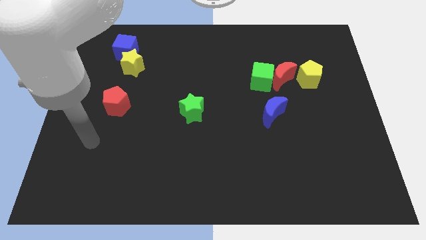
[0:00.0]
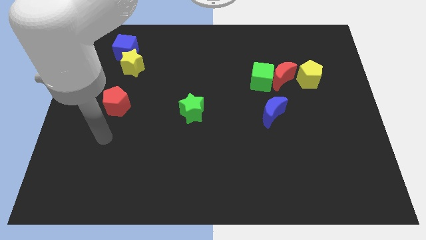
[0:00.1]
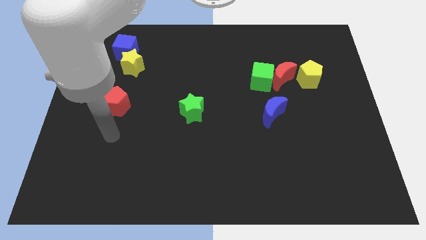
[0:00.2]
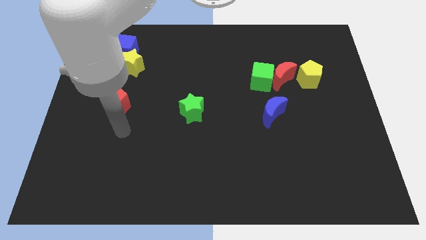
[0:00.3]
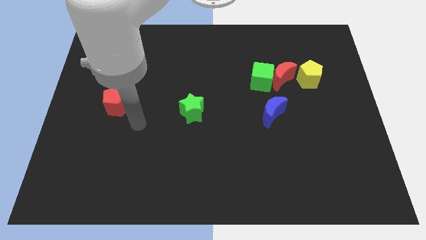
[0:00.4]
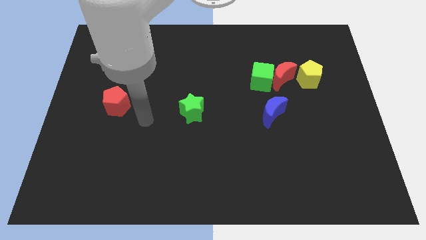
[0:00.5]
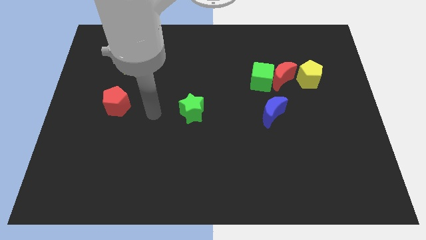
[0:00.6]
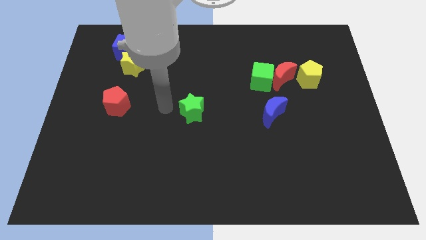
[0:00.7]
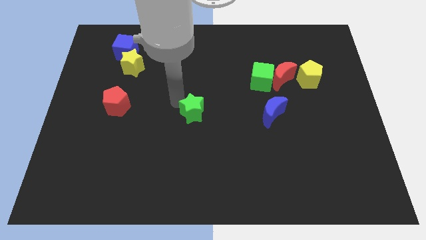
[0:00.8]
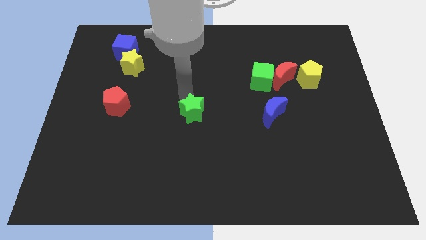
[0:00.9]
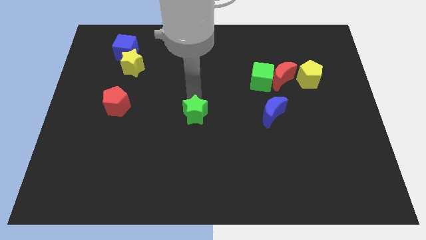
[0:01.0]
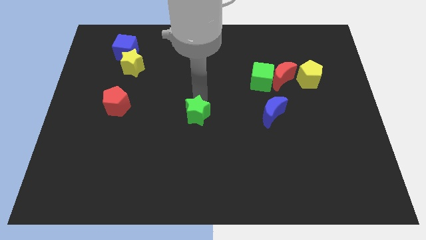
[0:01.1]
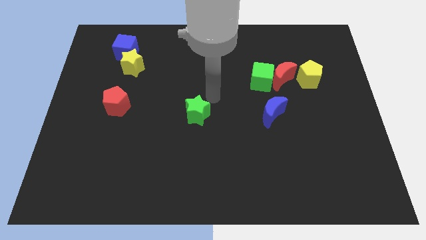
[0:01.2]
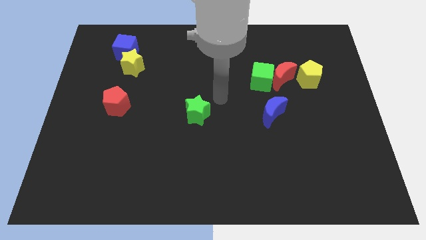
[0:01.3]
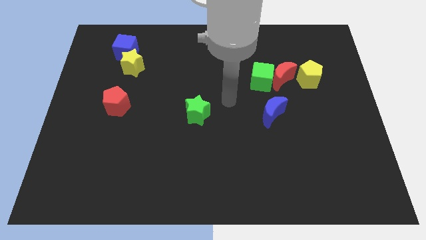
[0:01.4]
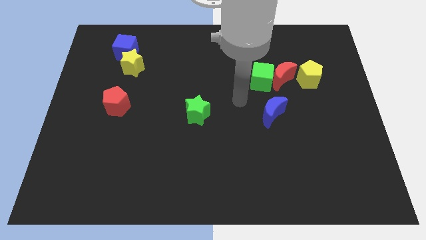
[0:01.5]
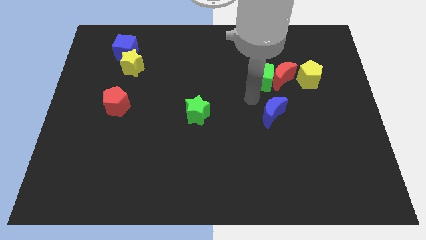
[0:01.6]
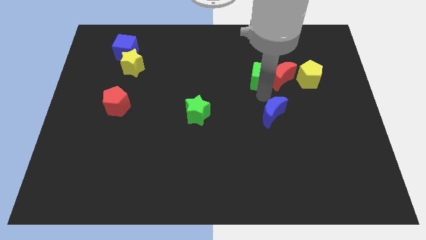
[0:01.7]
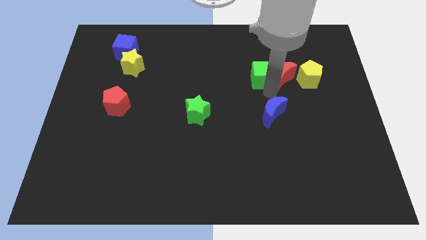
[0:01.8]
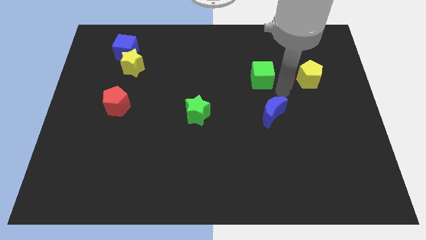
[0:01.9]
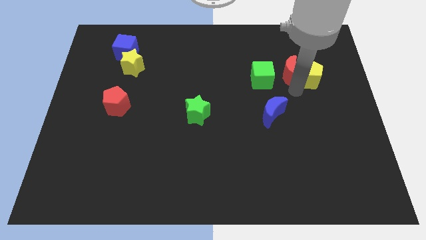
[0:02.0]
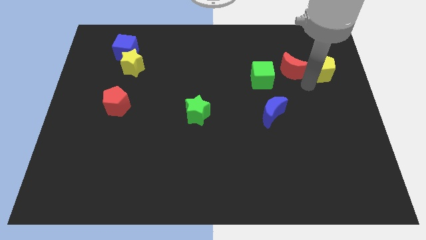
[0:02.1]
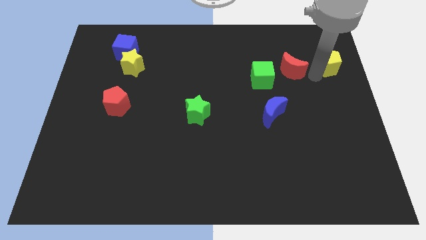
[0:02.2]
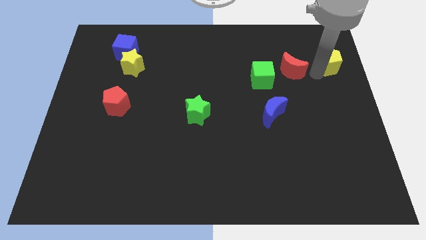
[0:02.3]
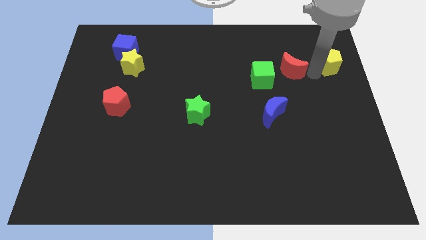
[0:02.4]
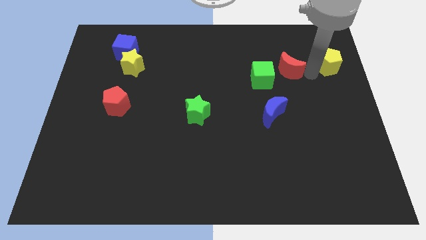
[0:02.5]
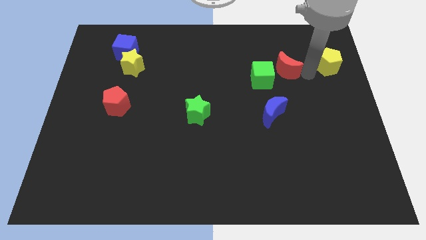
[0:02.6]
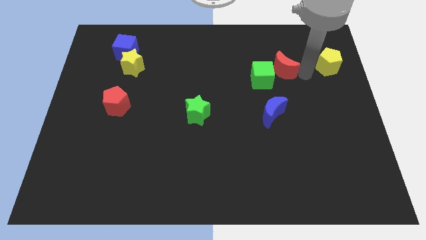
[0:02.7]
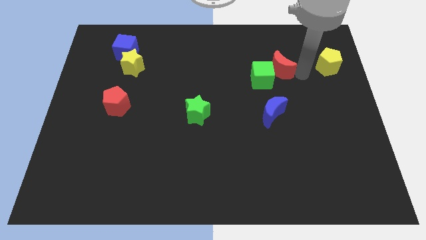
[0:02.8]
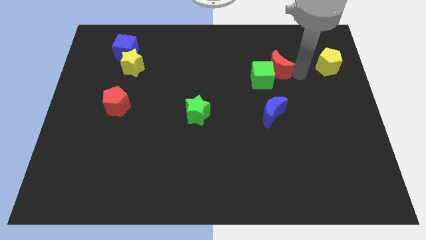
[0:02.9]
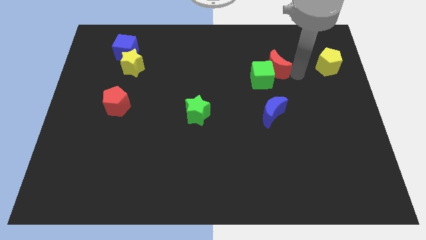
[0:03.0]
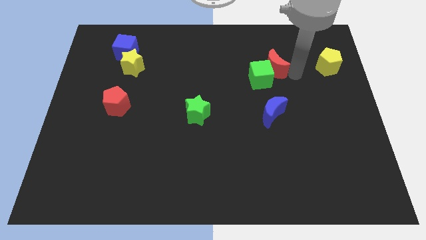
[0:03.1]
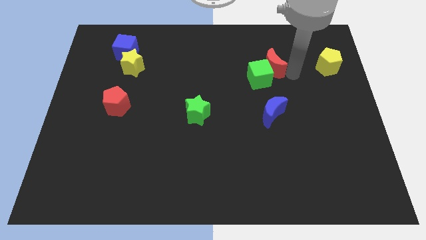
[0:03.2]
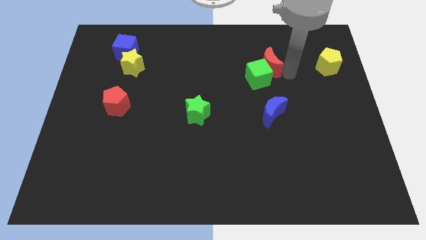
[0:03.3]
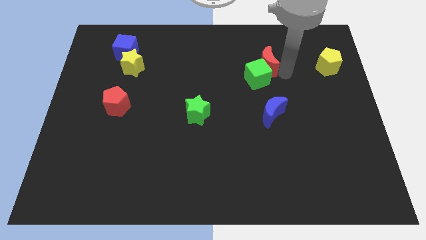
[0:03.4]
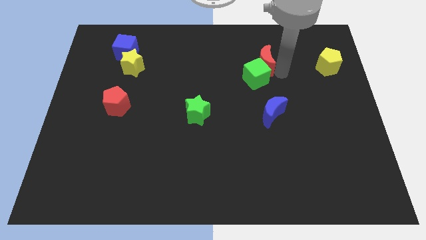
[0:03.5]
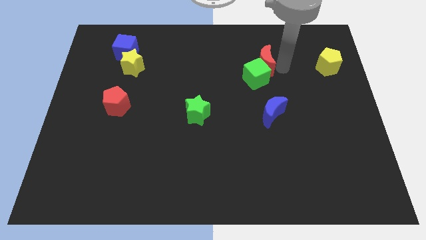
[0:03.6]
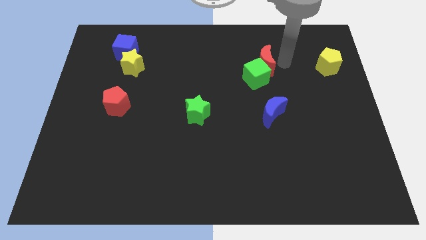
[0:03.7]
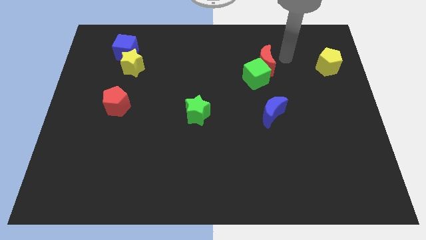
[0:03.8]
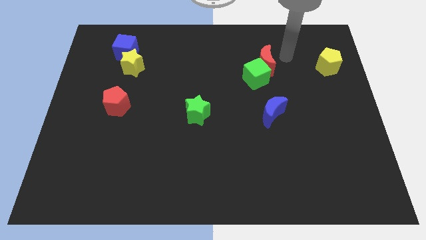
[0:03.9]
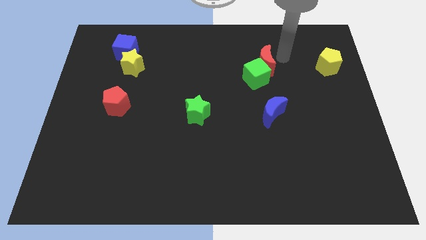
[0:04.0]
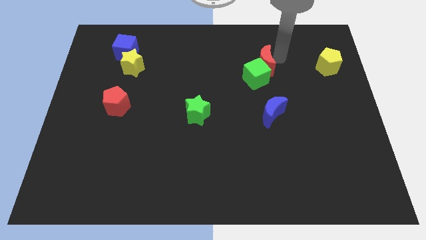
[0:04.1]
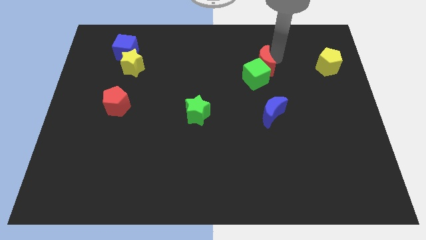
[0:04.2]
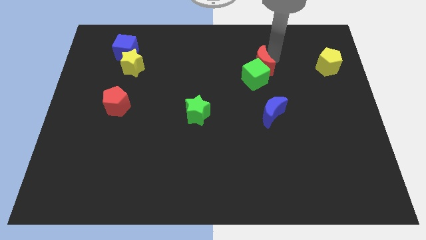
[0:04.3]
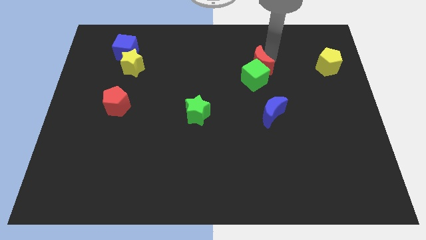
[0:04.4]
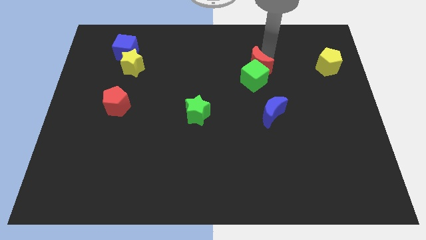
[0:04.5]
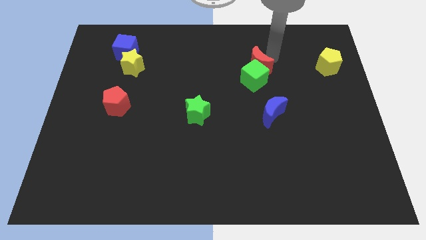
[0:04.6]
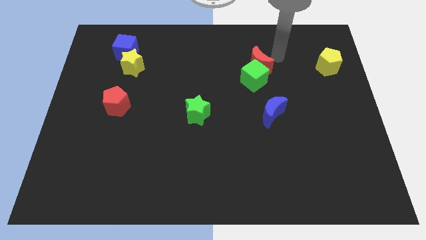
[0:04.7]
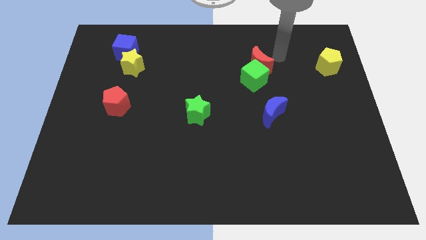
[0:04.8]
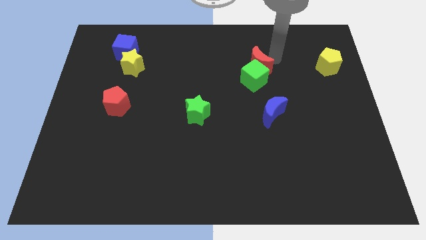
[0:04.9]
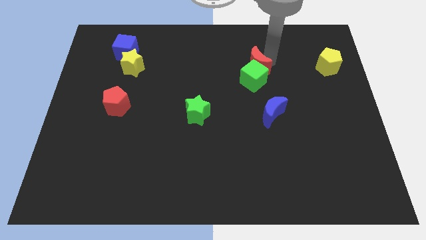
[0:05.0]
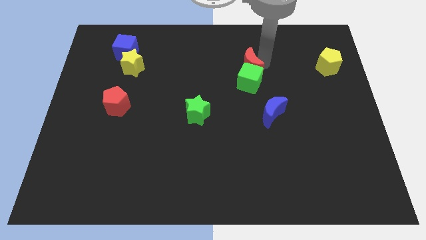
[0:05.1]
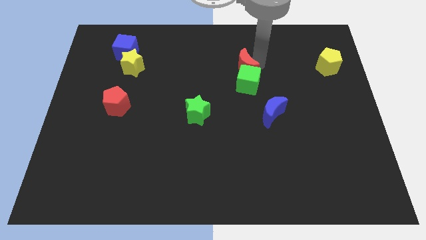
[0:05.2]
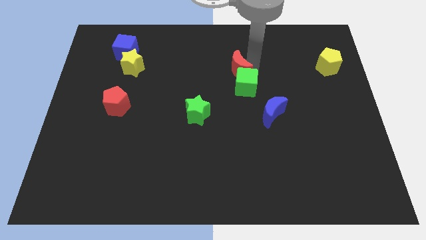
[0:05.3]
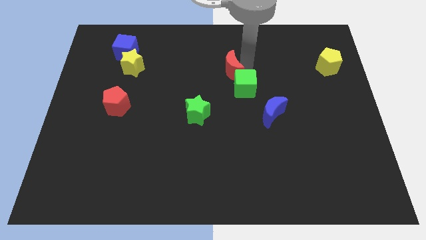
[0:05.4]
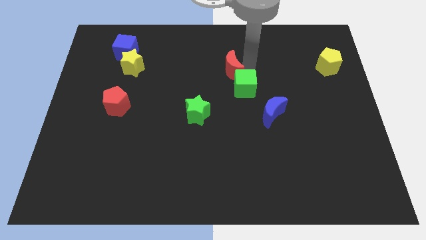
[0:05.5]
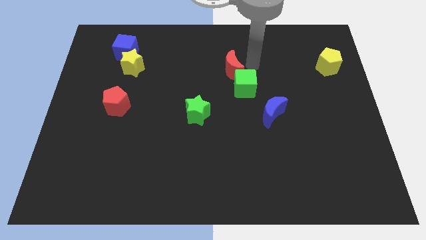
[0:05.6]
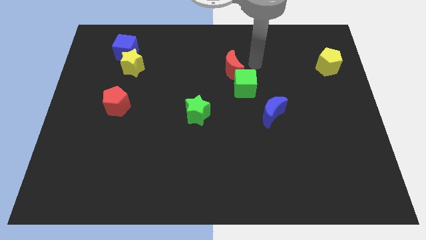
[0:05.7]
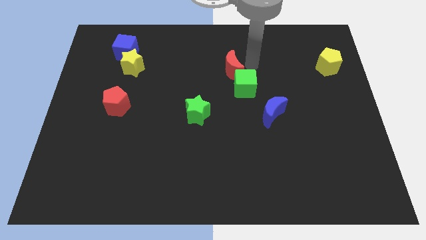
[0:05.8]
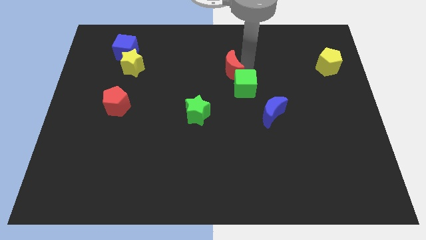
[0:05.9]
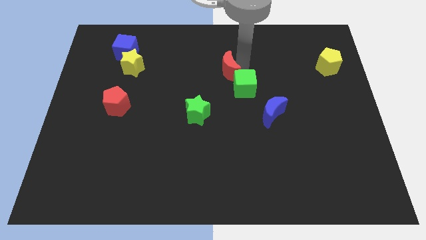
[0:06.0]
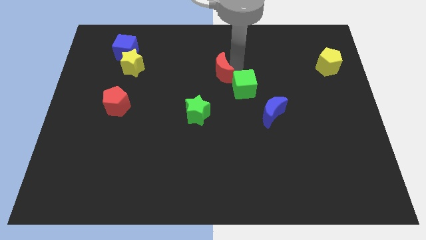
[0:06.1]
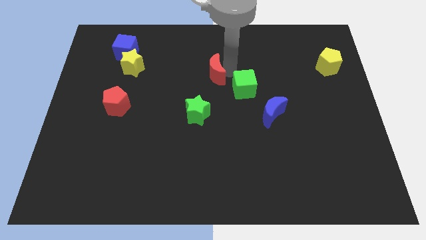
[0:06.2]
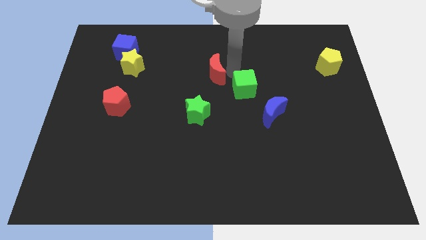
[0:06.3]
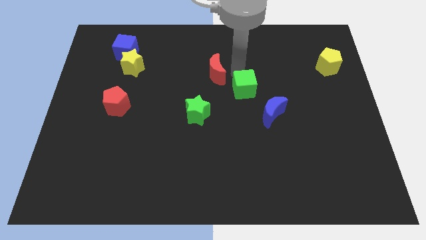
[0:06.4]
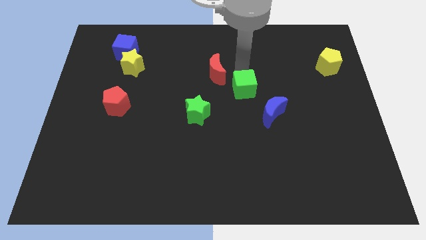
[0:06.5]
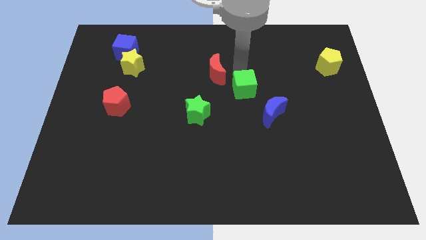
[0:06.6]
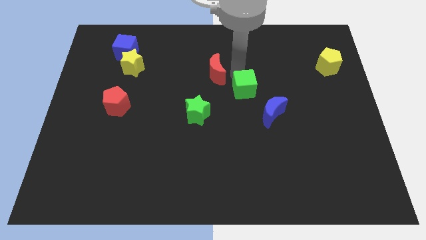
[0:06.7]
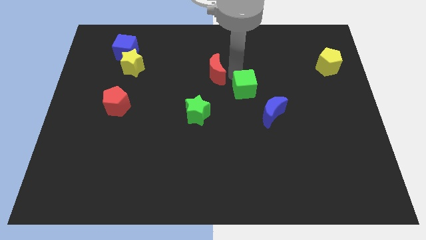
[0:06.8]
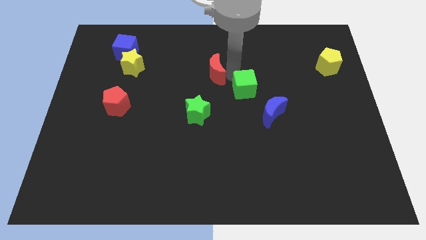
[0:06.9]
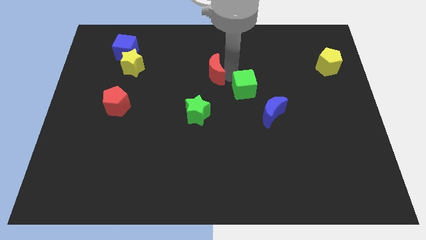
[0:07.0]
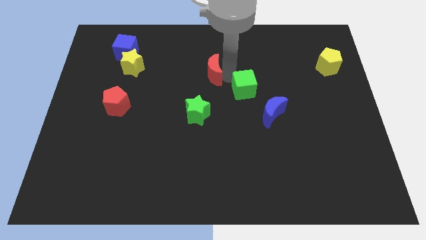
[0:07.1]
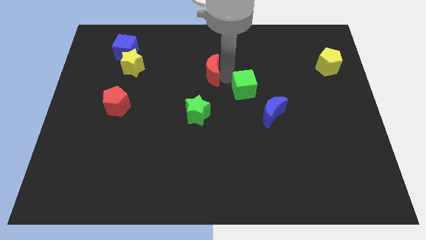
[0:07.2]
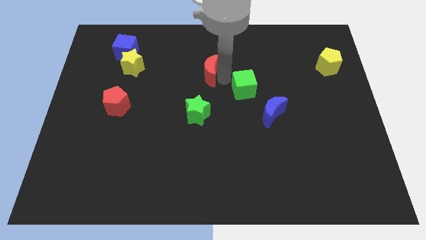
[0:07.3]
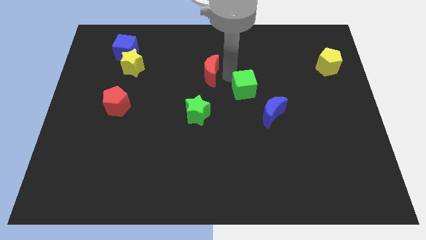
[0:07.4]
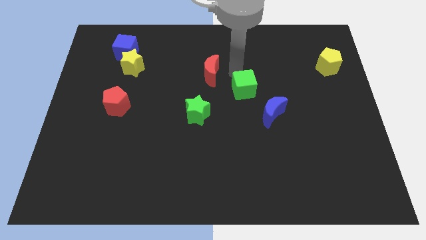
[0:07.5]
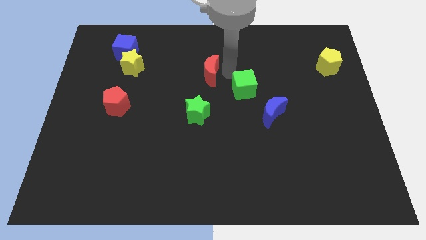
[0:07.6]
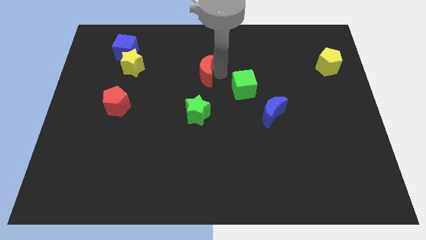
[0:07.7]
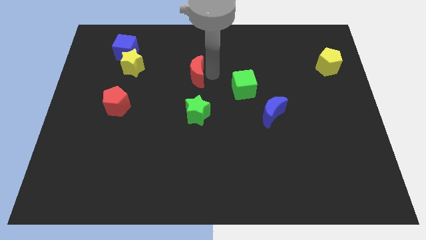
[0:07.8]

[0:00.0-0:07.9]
slide the red moon to the left

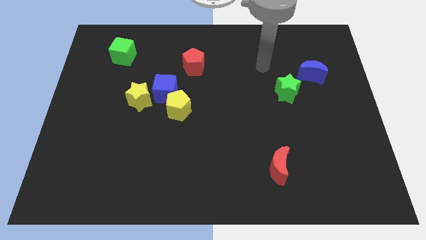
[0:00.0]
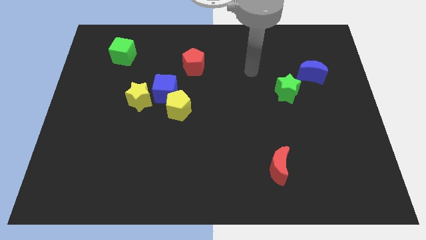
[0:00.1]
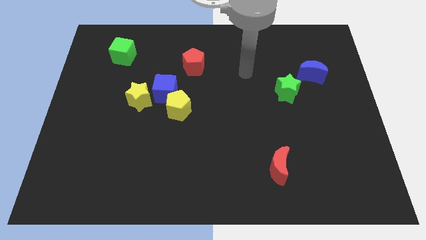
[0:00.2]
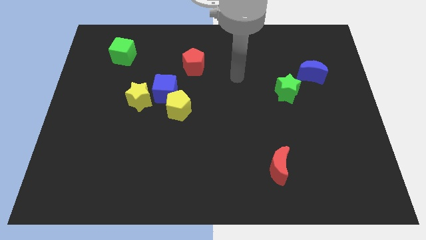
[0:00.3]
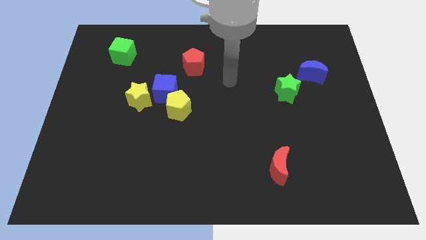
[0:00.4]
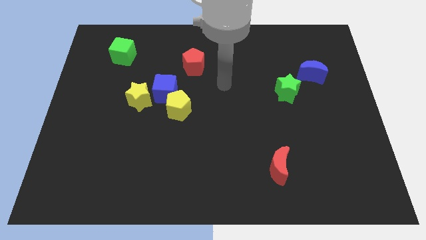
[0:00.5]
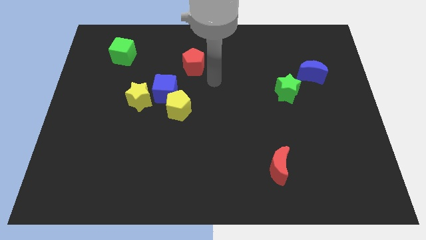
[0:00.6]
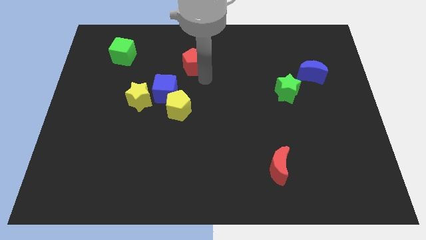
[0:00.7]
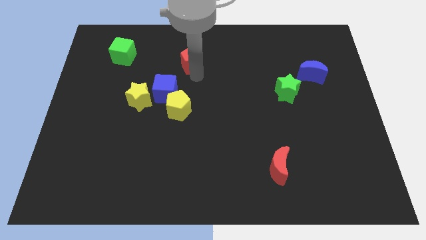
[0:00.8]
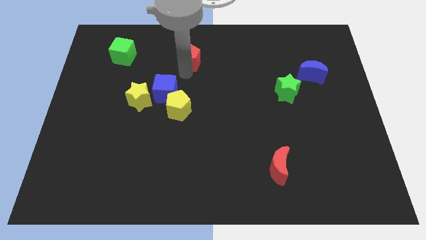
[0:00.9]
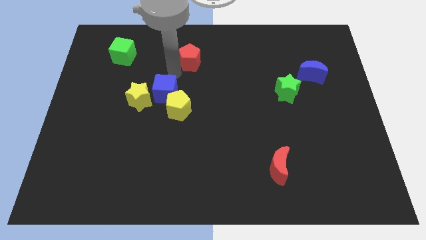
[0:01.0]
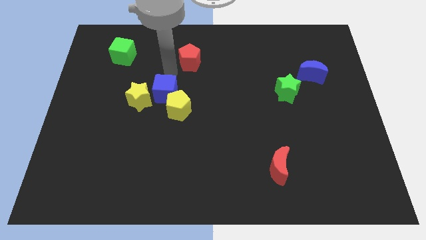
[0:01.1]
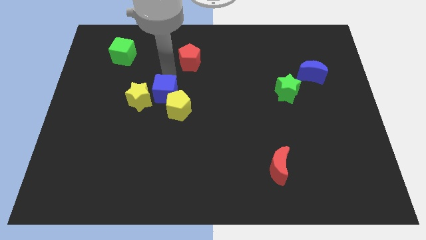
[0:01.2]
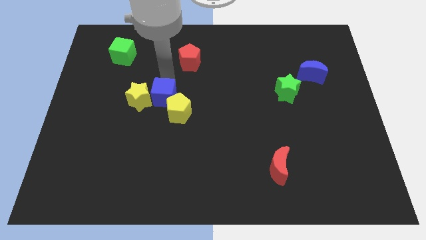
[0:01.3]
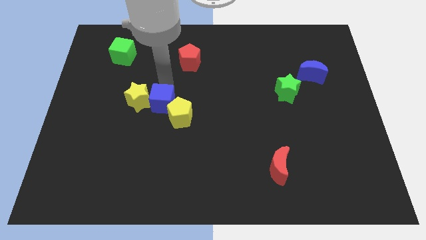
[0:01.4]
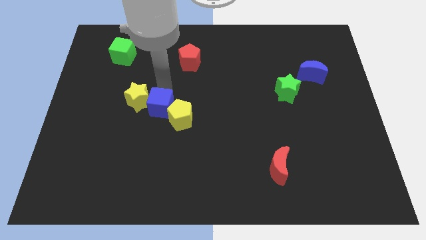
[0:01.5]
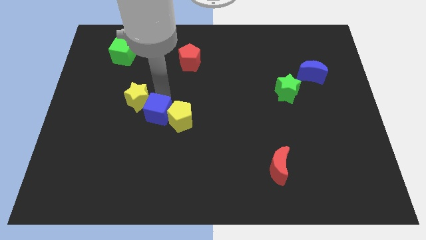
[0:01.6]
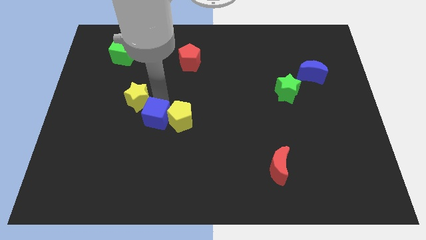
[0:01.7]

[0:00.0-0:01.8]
slide the blue cube down slightly
